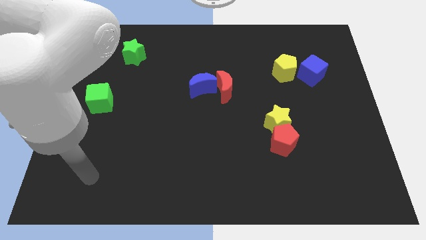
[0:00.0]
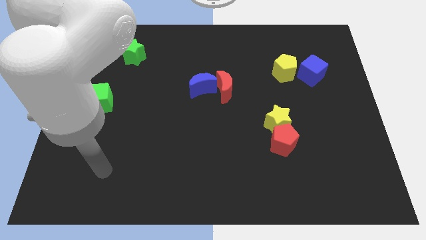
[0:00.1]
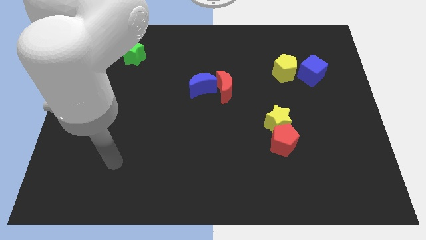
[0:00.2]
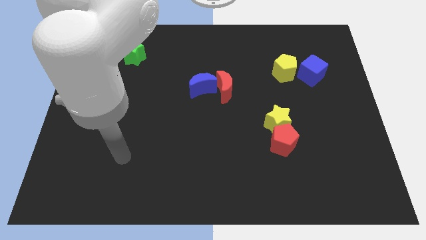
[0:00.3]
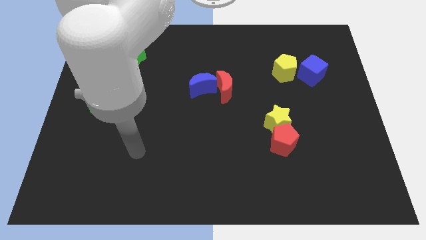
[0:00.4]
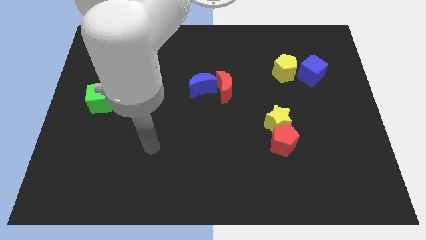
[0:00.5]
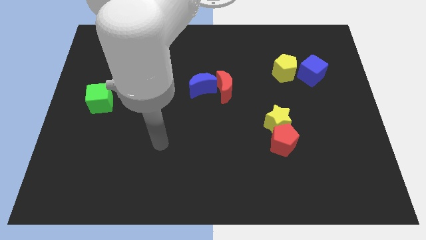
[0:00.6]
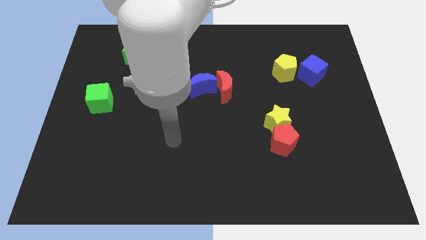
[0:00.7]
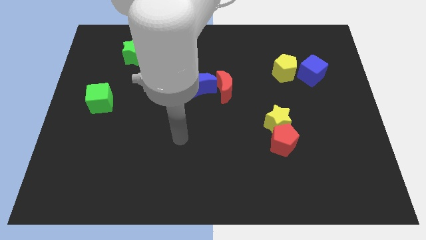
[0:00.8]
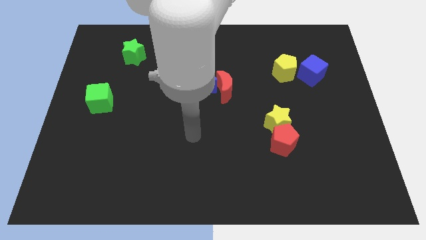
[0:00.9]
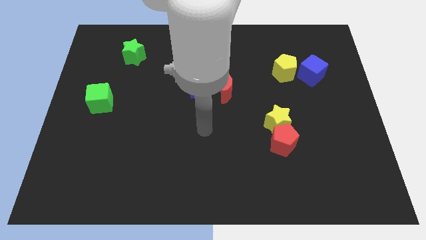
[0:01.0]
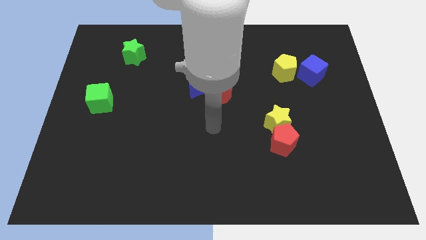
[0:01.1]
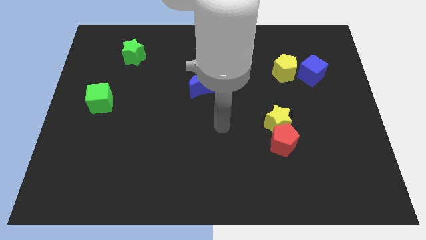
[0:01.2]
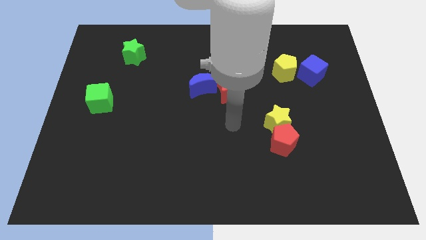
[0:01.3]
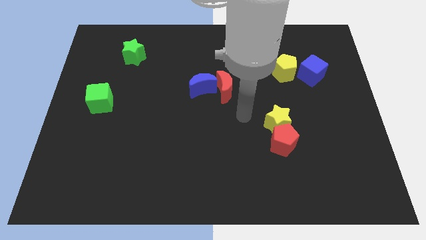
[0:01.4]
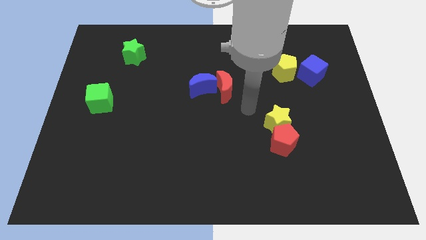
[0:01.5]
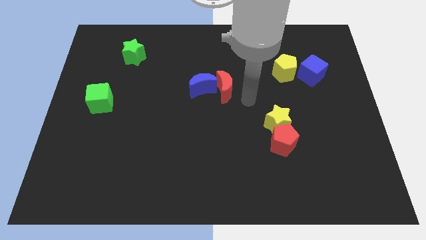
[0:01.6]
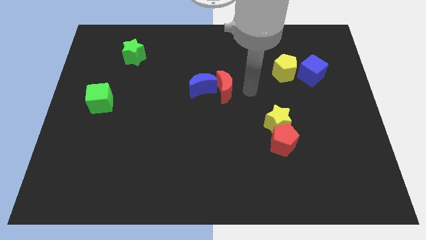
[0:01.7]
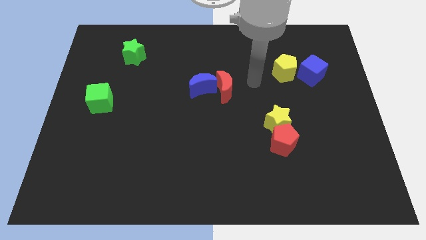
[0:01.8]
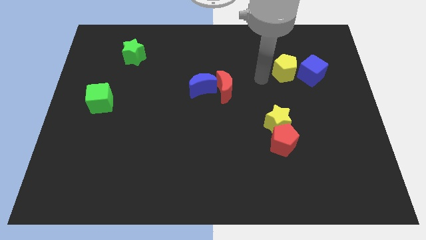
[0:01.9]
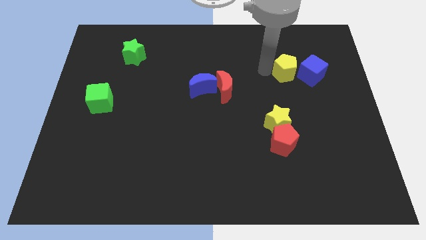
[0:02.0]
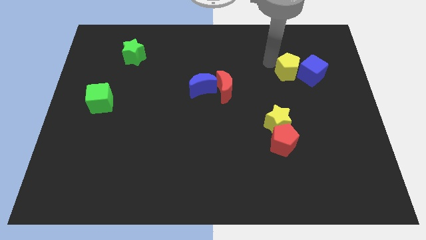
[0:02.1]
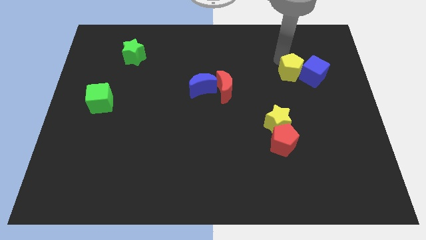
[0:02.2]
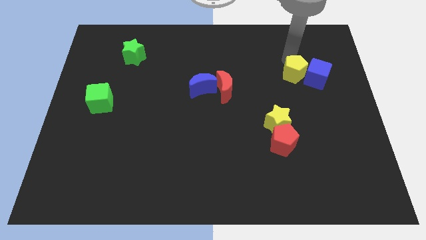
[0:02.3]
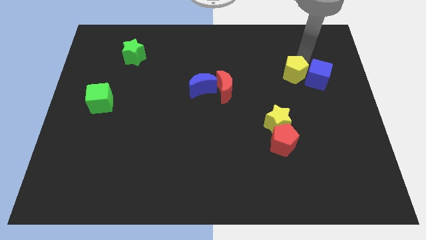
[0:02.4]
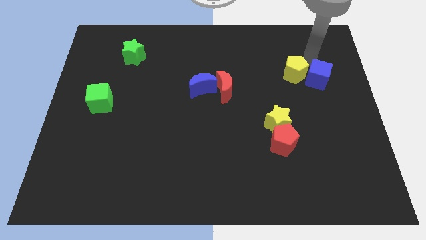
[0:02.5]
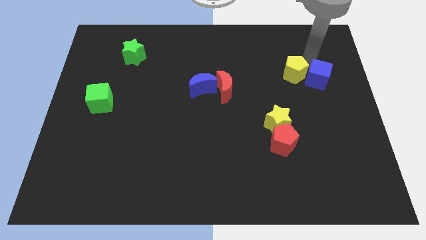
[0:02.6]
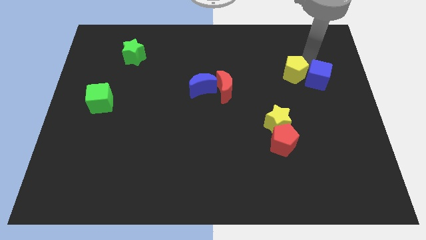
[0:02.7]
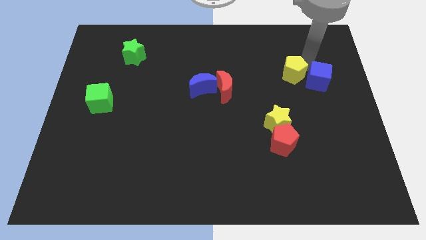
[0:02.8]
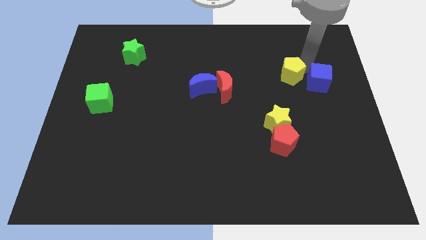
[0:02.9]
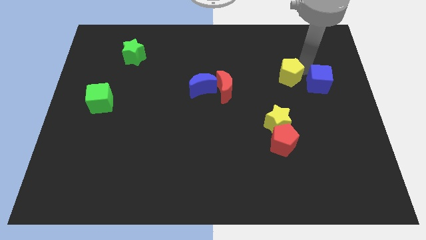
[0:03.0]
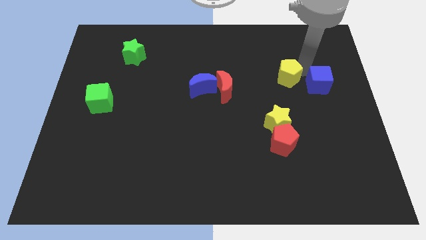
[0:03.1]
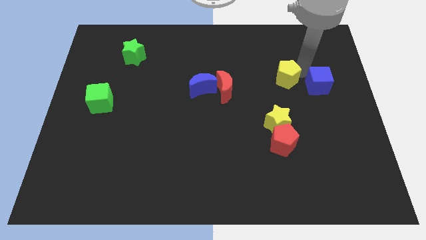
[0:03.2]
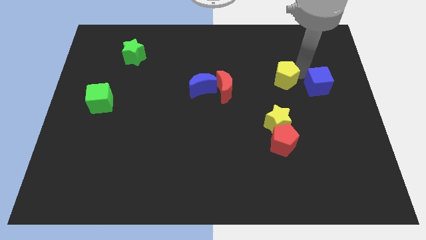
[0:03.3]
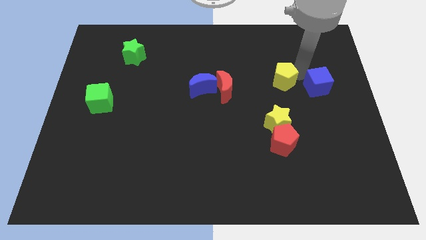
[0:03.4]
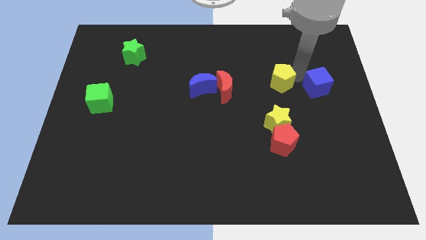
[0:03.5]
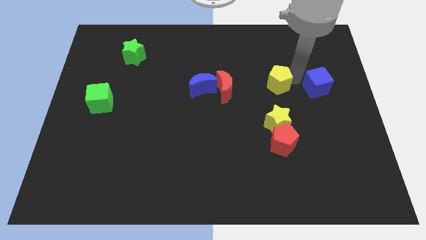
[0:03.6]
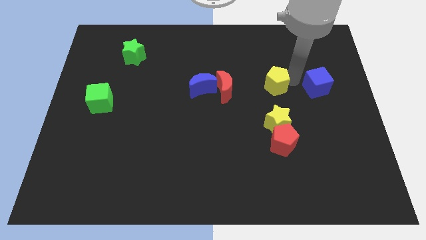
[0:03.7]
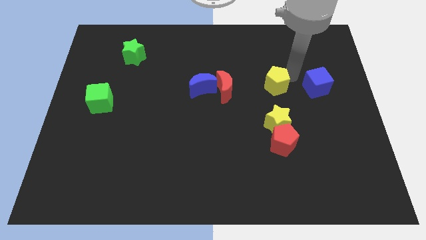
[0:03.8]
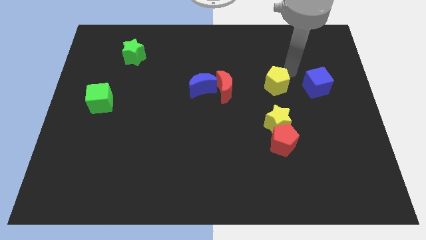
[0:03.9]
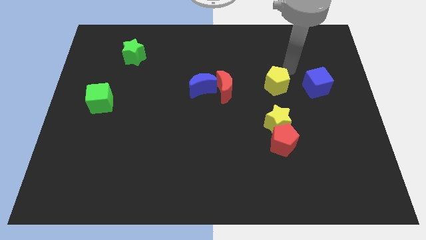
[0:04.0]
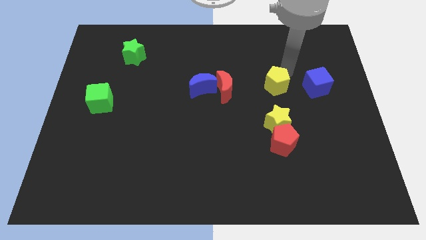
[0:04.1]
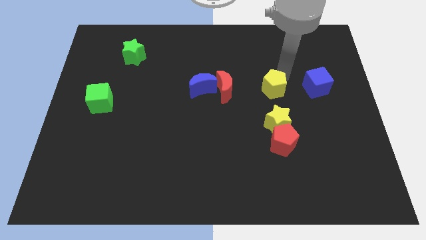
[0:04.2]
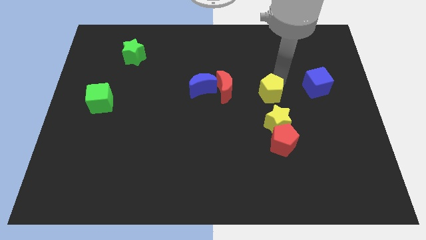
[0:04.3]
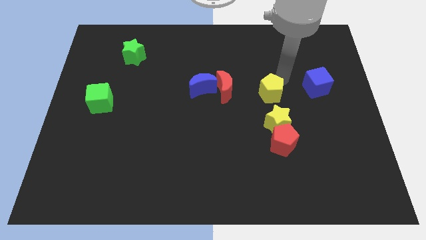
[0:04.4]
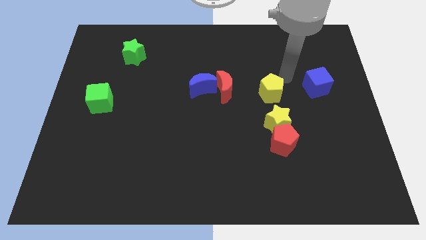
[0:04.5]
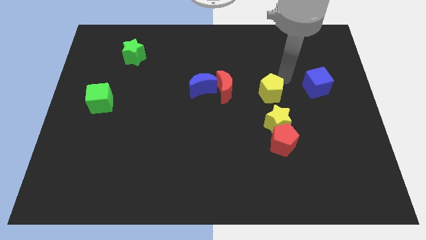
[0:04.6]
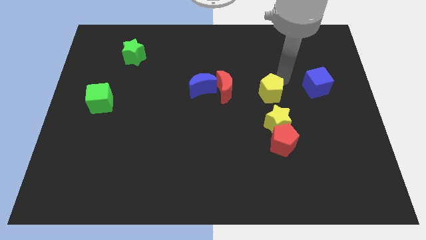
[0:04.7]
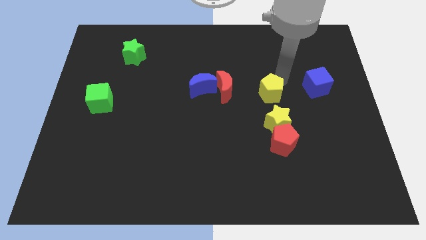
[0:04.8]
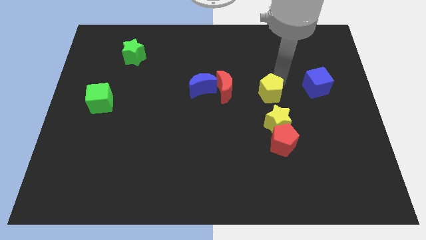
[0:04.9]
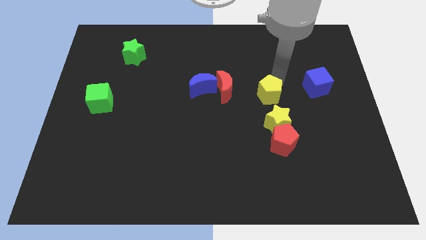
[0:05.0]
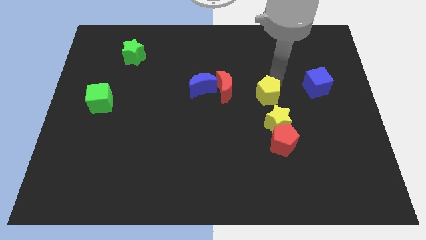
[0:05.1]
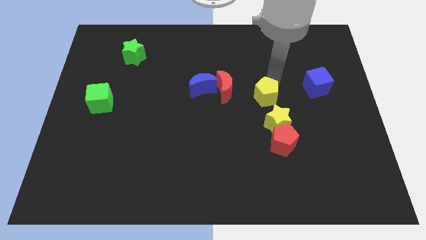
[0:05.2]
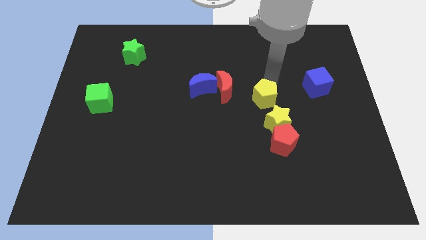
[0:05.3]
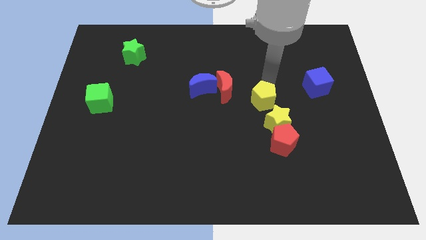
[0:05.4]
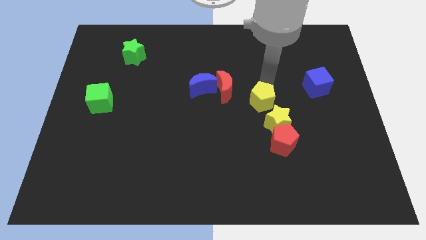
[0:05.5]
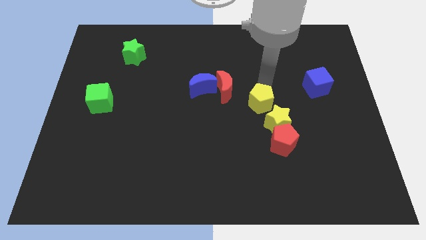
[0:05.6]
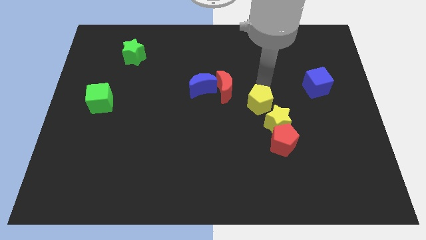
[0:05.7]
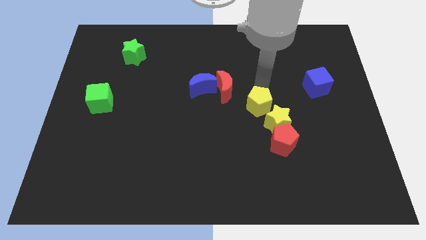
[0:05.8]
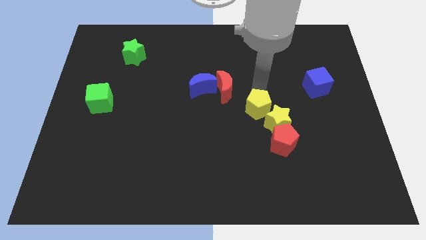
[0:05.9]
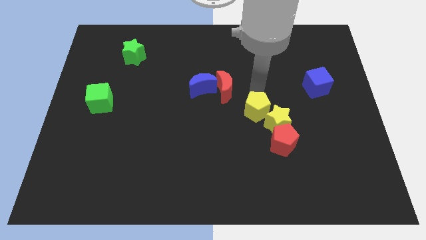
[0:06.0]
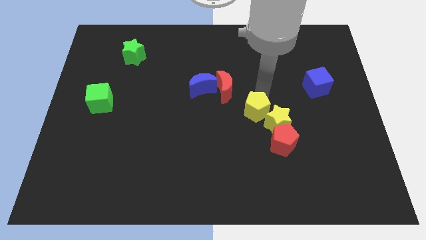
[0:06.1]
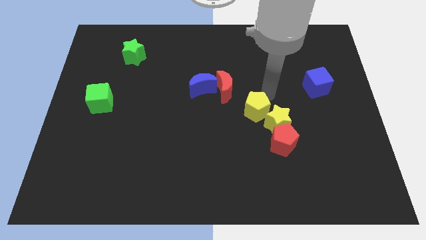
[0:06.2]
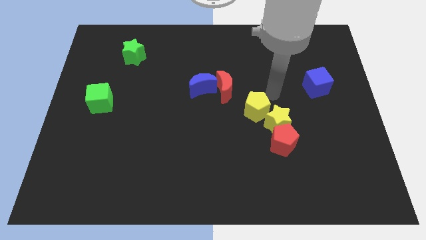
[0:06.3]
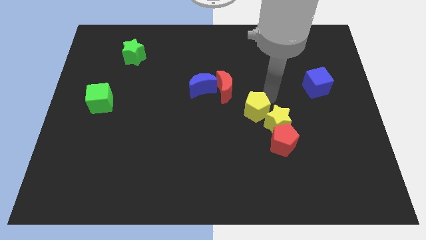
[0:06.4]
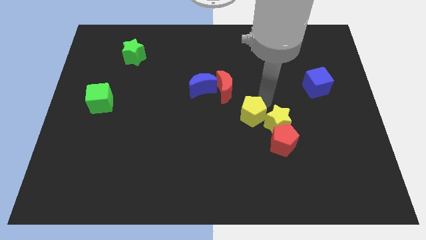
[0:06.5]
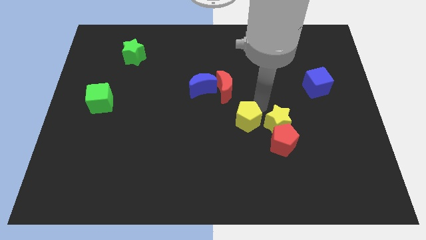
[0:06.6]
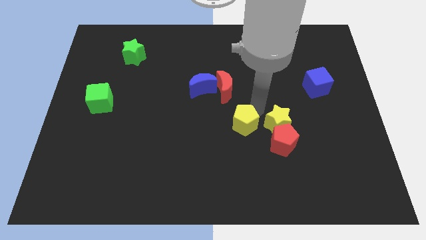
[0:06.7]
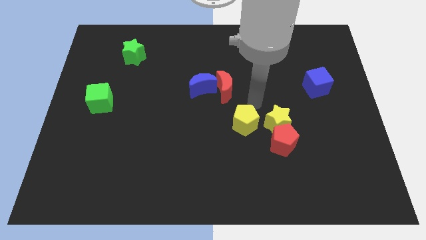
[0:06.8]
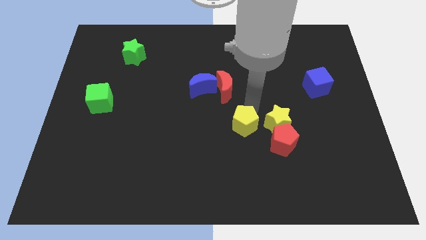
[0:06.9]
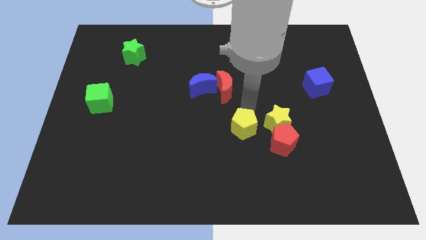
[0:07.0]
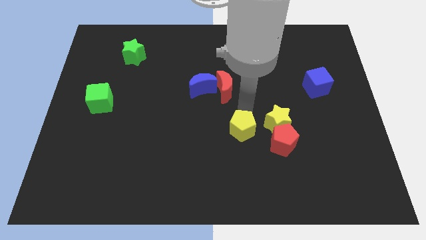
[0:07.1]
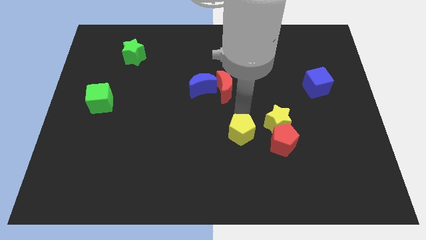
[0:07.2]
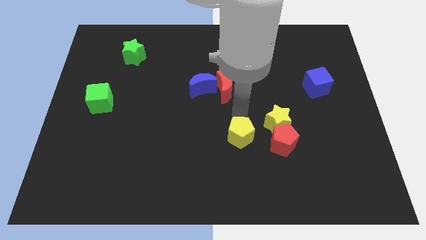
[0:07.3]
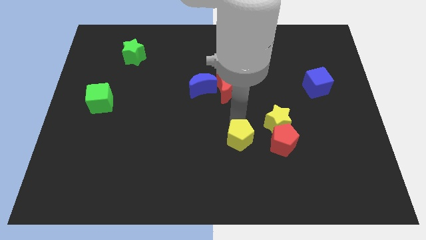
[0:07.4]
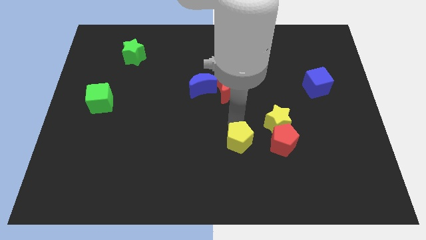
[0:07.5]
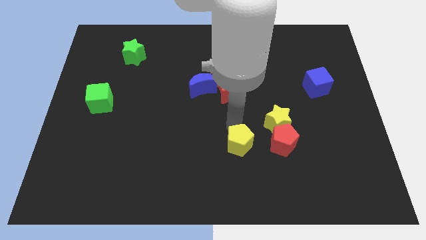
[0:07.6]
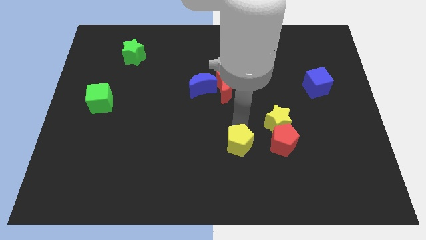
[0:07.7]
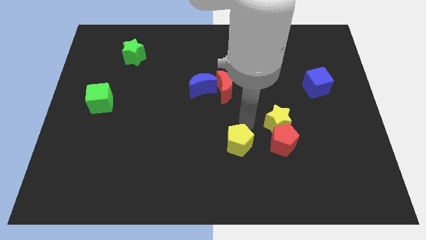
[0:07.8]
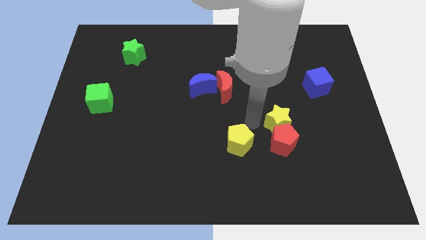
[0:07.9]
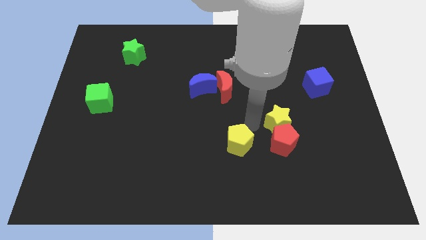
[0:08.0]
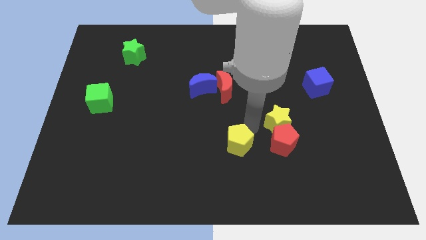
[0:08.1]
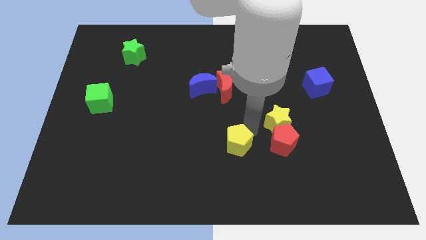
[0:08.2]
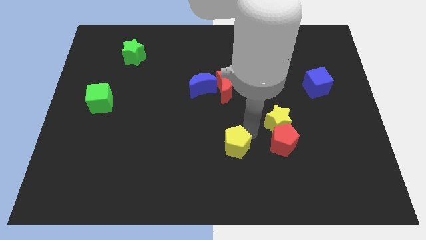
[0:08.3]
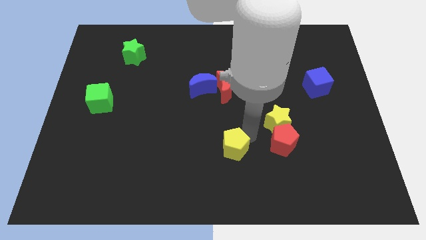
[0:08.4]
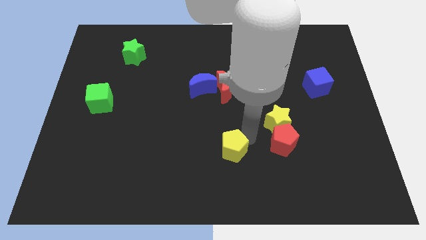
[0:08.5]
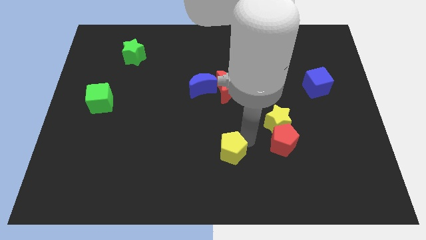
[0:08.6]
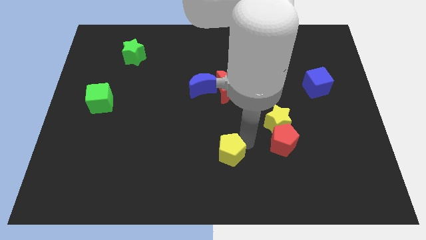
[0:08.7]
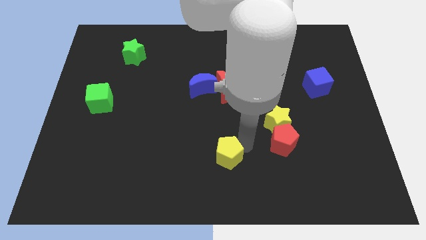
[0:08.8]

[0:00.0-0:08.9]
slide the yellow pentagon to the bottom side
